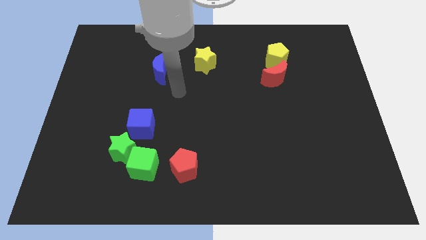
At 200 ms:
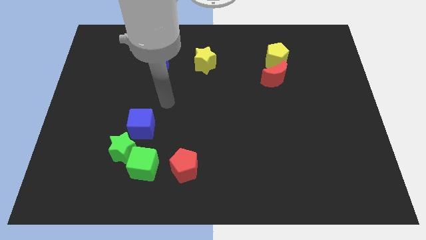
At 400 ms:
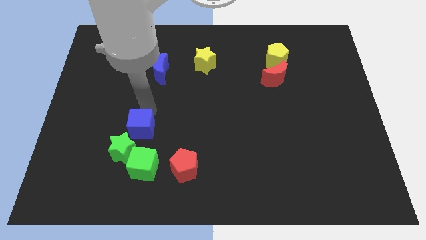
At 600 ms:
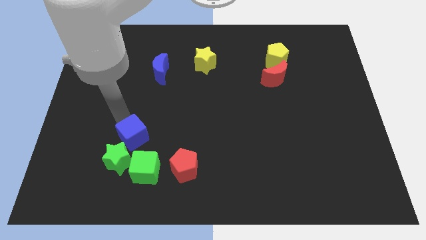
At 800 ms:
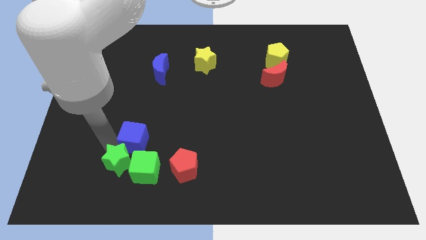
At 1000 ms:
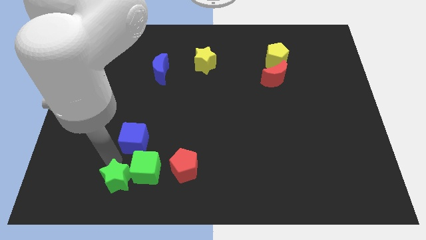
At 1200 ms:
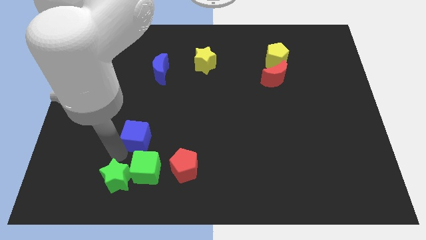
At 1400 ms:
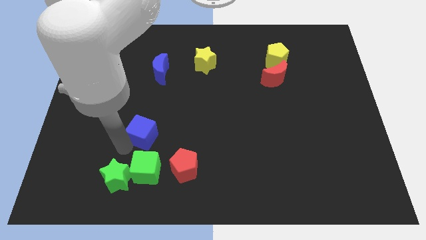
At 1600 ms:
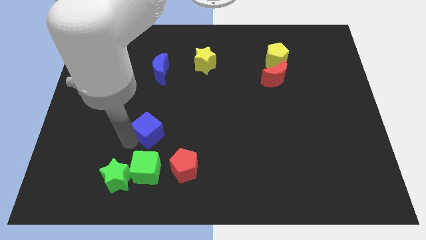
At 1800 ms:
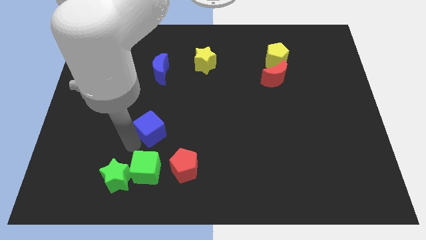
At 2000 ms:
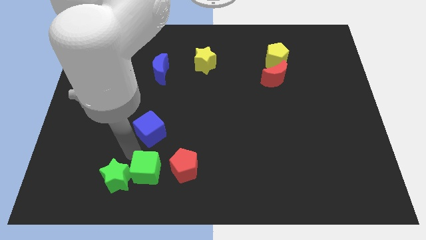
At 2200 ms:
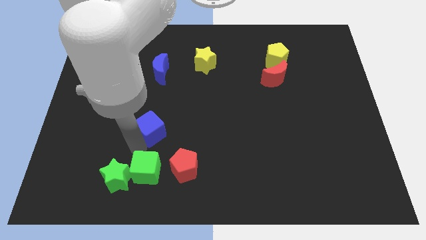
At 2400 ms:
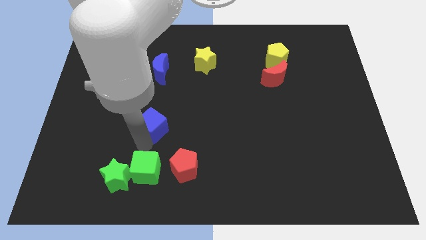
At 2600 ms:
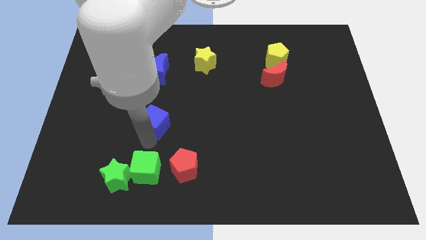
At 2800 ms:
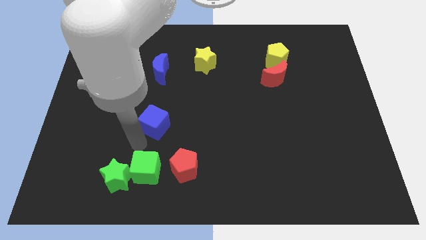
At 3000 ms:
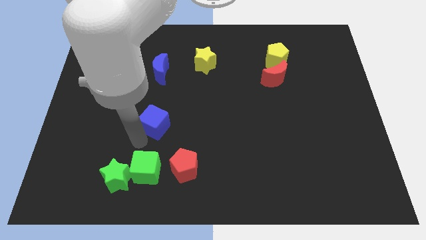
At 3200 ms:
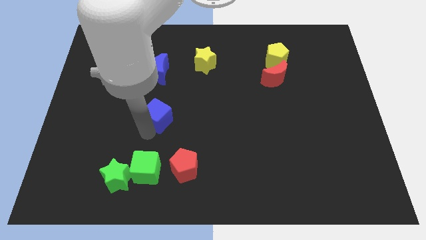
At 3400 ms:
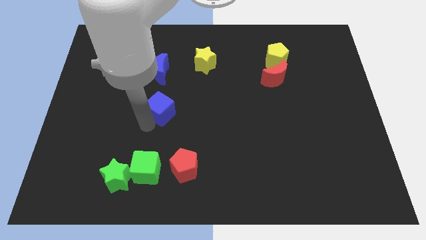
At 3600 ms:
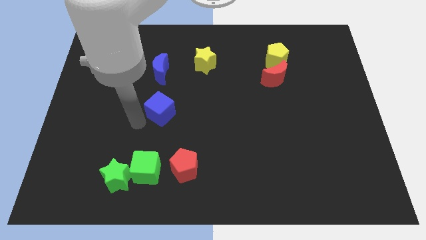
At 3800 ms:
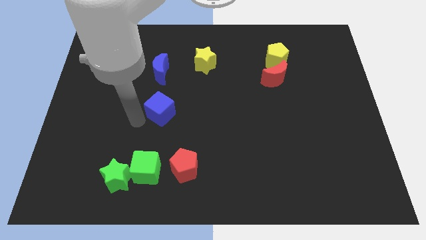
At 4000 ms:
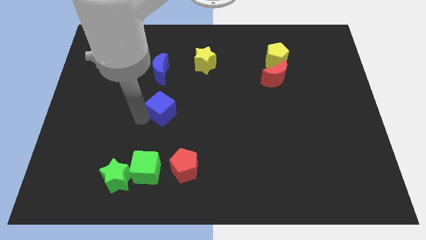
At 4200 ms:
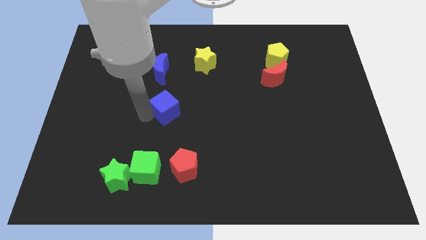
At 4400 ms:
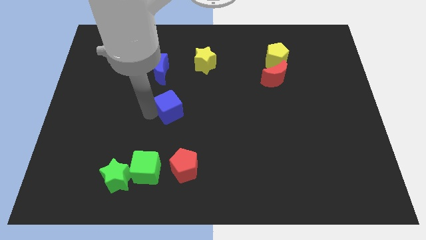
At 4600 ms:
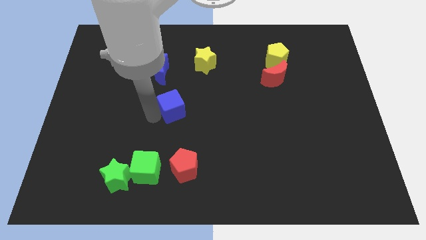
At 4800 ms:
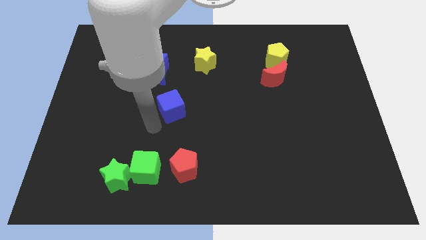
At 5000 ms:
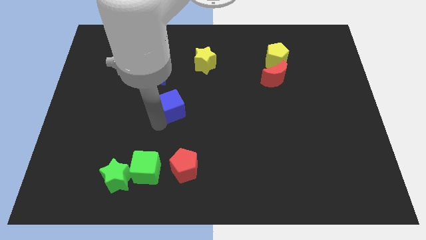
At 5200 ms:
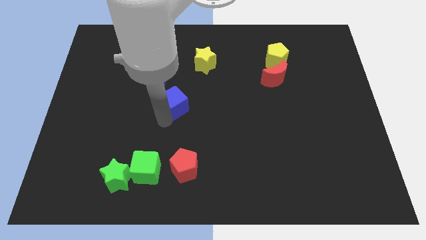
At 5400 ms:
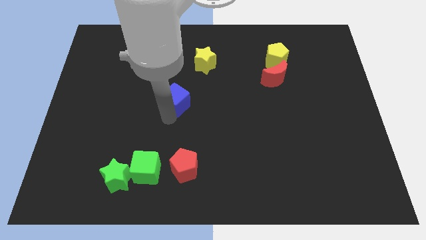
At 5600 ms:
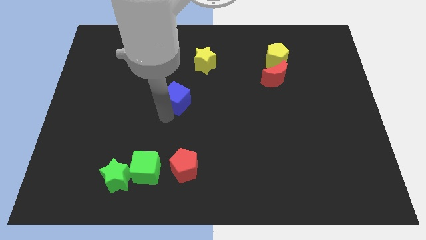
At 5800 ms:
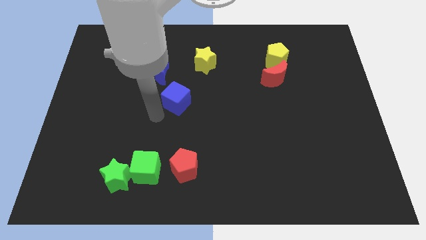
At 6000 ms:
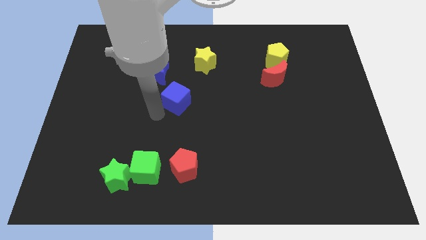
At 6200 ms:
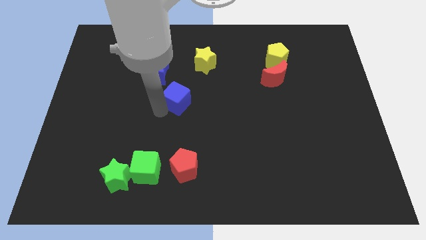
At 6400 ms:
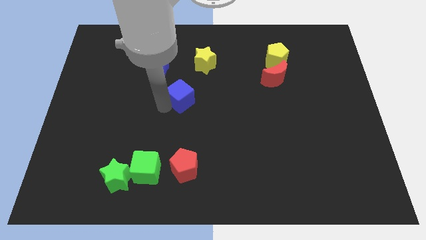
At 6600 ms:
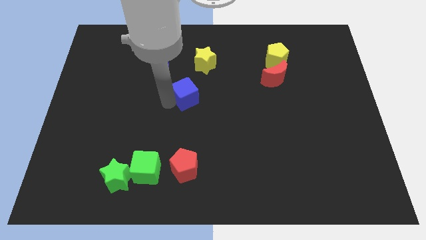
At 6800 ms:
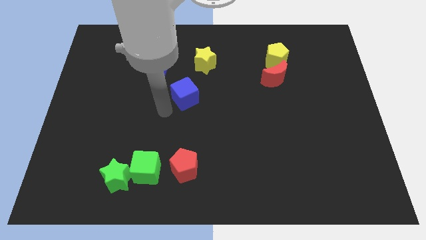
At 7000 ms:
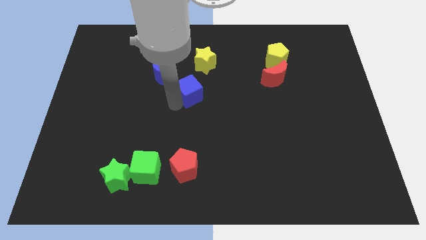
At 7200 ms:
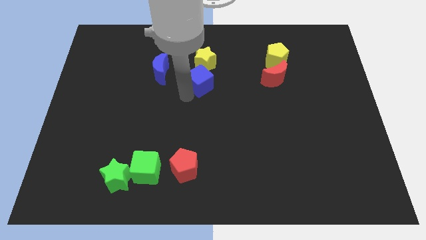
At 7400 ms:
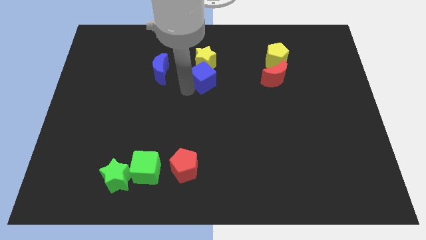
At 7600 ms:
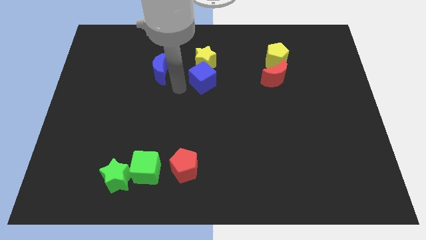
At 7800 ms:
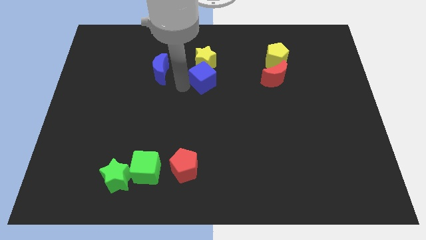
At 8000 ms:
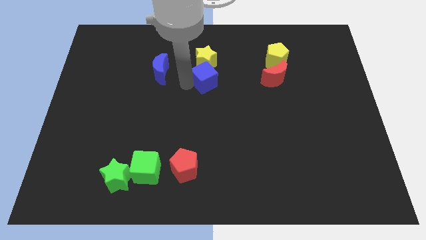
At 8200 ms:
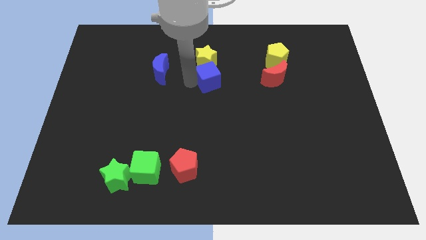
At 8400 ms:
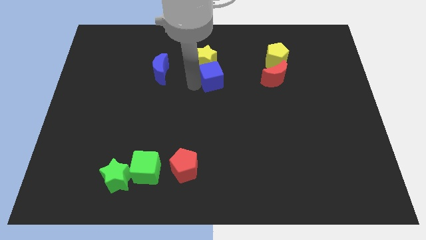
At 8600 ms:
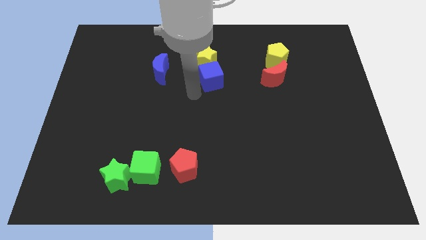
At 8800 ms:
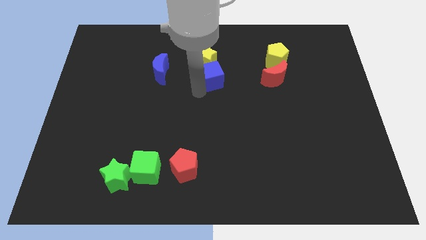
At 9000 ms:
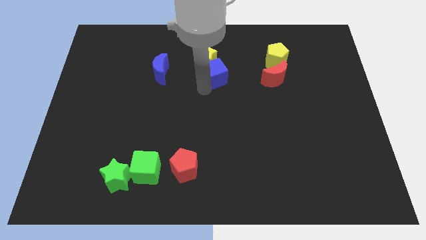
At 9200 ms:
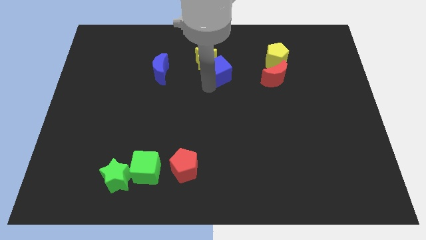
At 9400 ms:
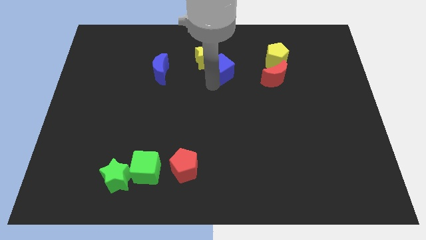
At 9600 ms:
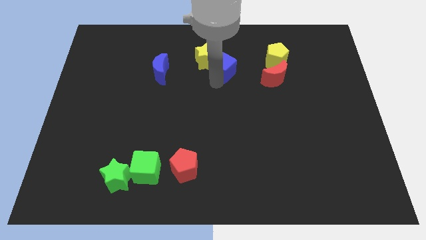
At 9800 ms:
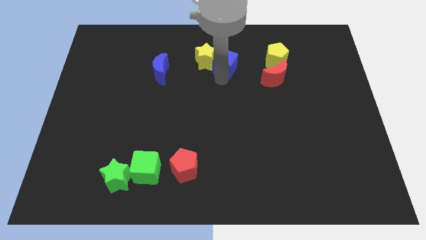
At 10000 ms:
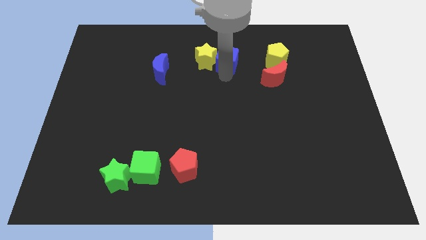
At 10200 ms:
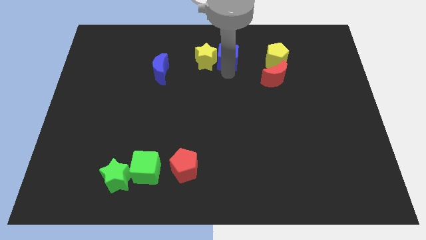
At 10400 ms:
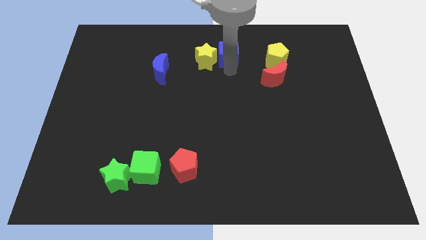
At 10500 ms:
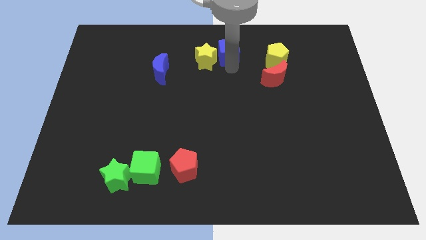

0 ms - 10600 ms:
put the blue cube to the towards your base
